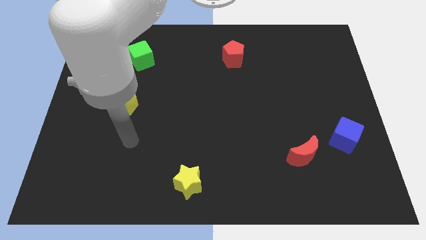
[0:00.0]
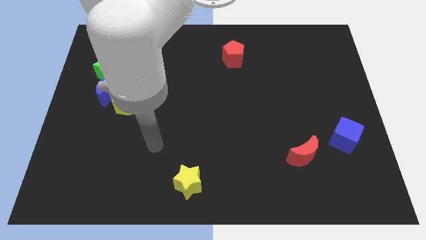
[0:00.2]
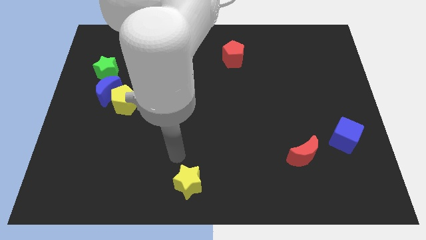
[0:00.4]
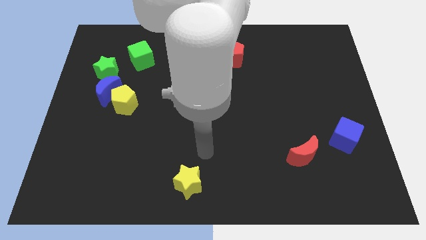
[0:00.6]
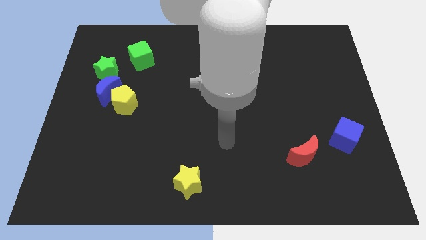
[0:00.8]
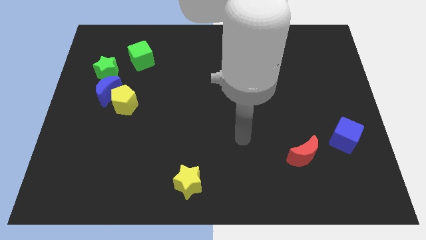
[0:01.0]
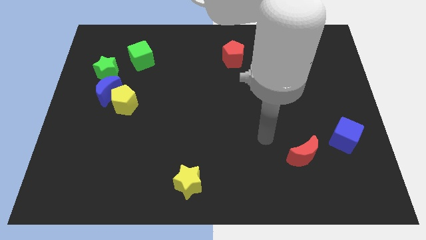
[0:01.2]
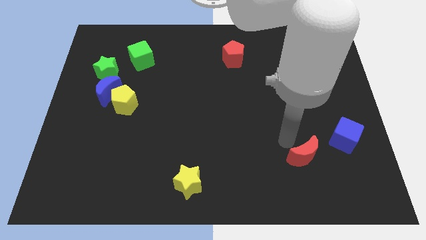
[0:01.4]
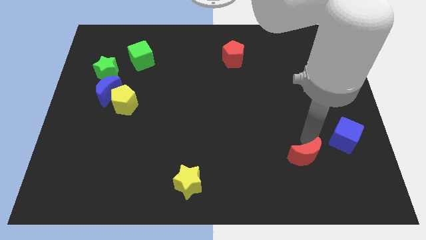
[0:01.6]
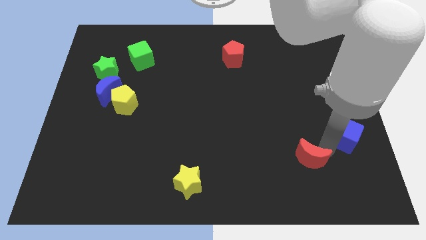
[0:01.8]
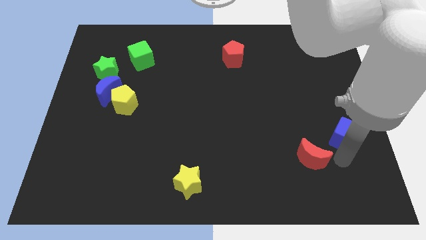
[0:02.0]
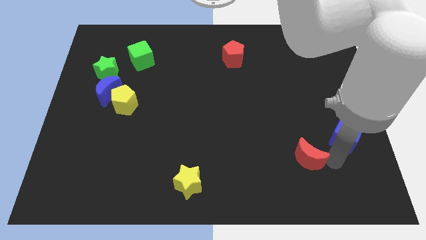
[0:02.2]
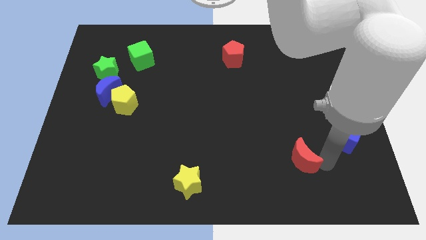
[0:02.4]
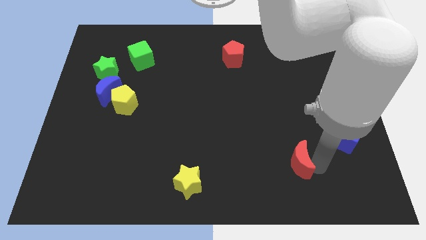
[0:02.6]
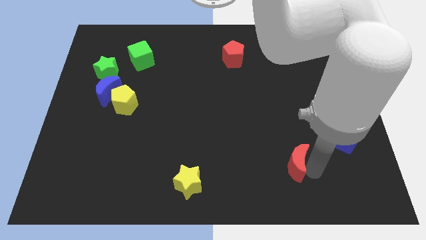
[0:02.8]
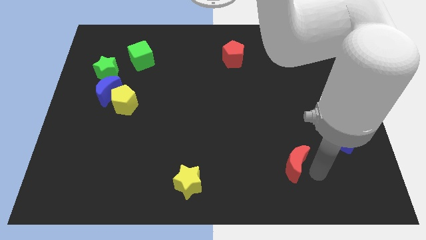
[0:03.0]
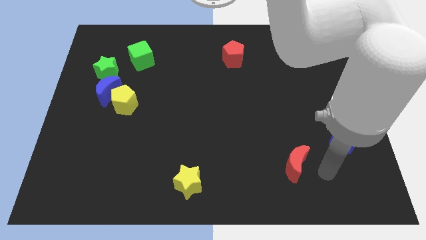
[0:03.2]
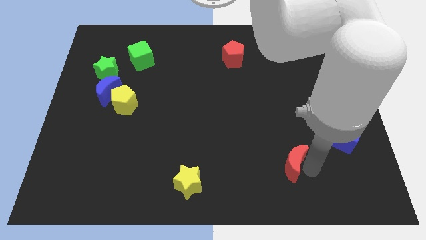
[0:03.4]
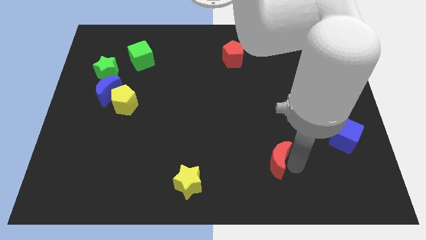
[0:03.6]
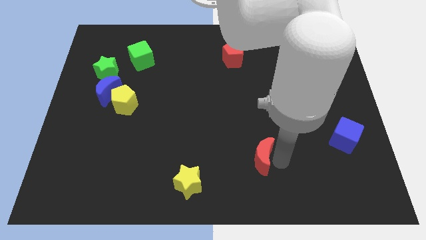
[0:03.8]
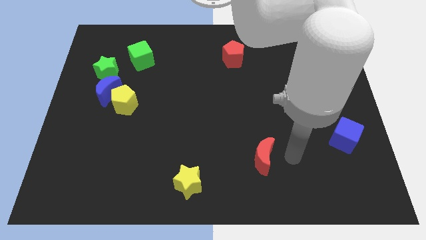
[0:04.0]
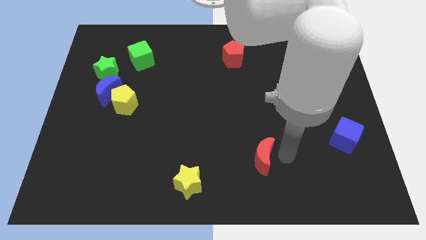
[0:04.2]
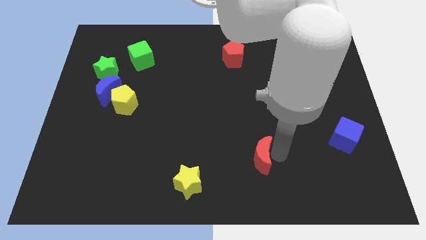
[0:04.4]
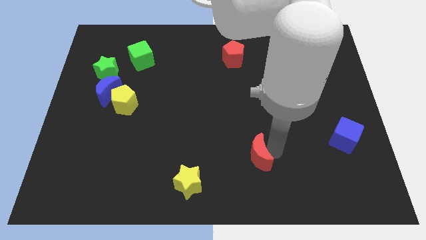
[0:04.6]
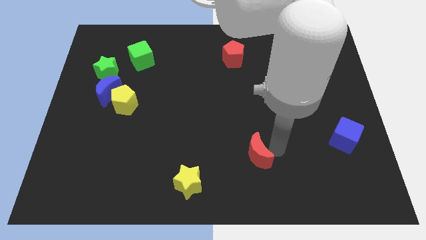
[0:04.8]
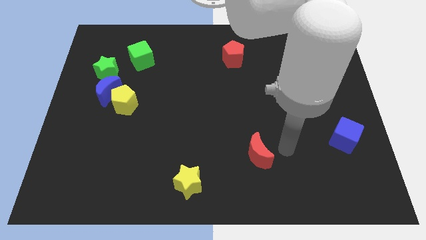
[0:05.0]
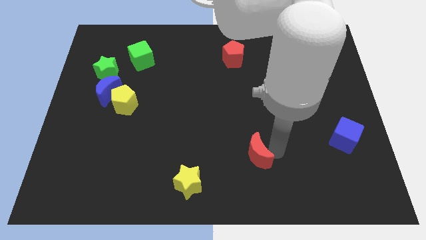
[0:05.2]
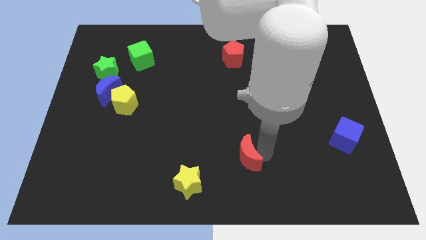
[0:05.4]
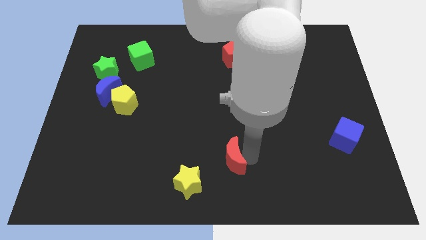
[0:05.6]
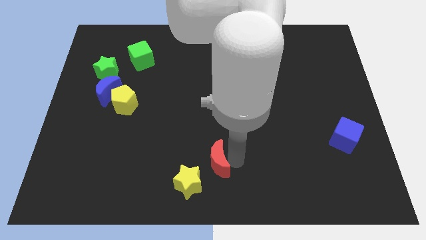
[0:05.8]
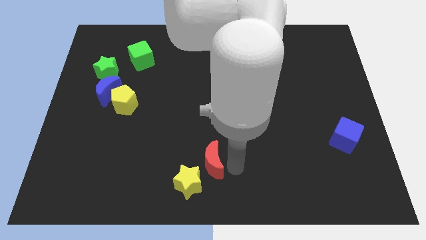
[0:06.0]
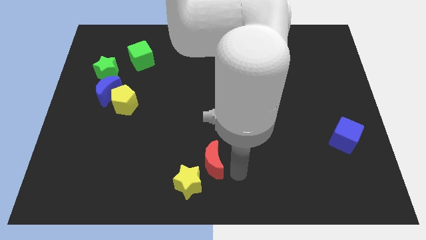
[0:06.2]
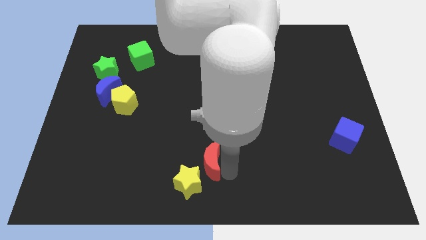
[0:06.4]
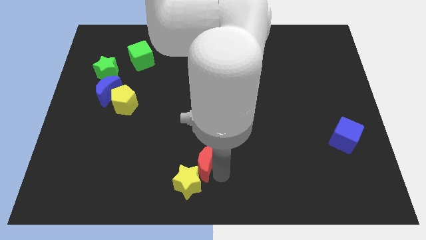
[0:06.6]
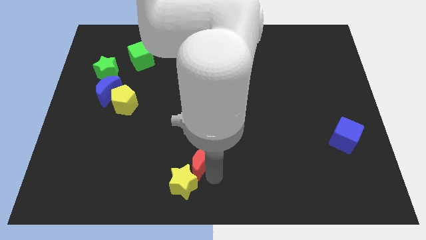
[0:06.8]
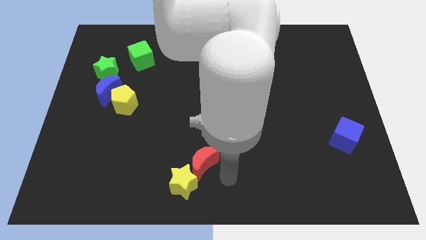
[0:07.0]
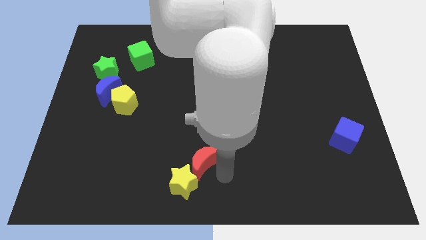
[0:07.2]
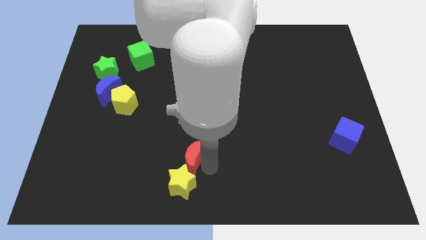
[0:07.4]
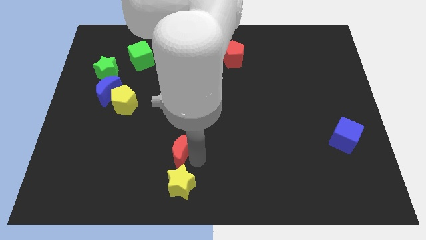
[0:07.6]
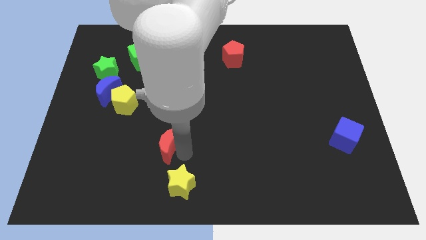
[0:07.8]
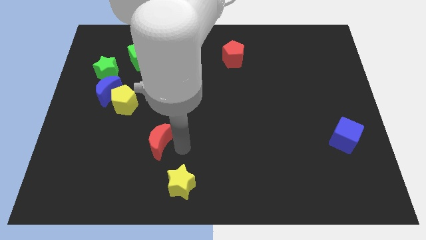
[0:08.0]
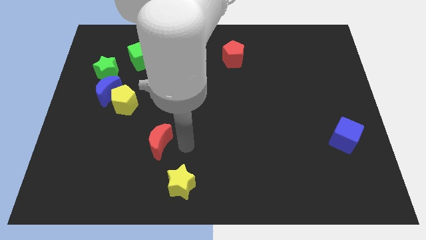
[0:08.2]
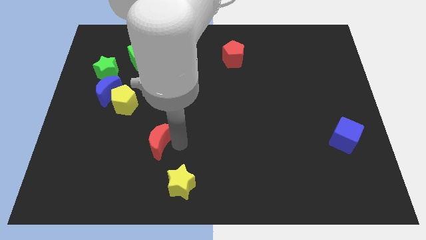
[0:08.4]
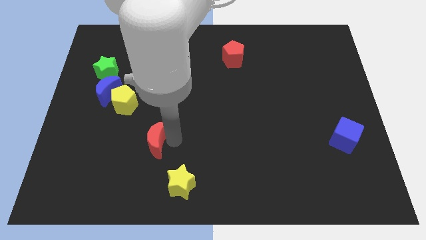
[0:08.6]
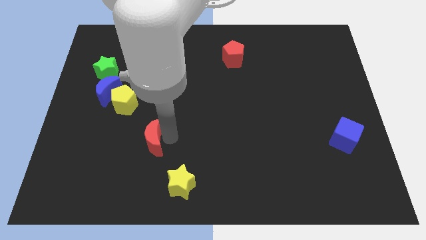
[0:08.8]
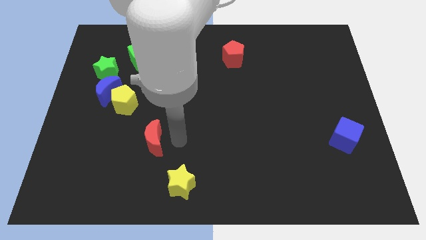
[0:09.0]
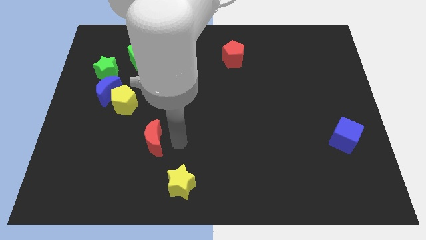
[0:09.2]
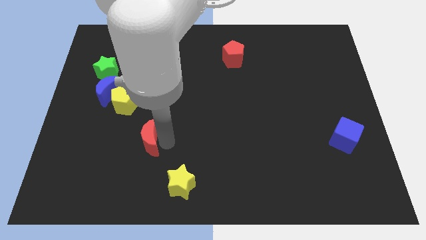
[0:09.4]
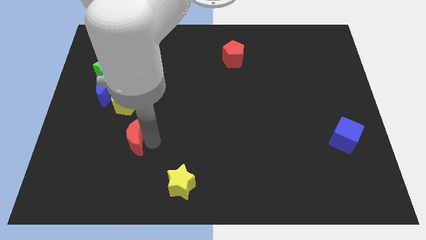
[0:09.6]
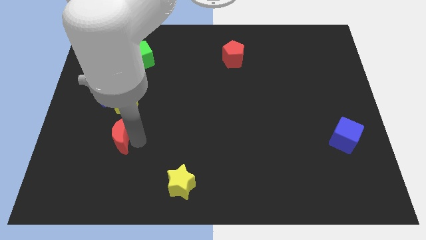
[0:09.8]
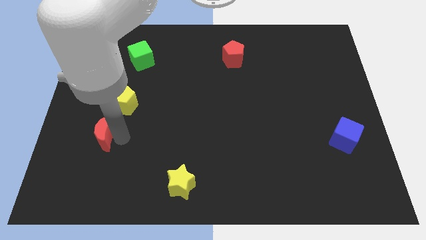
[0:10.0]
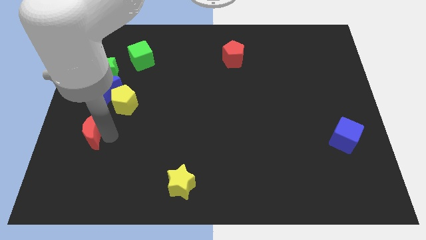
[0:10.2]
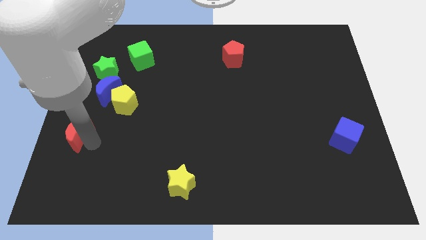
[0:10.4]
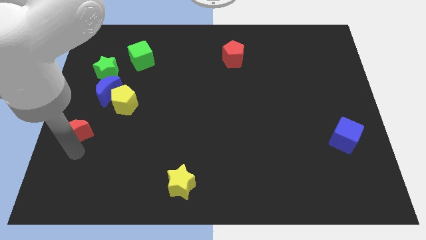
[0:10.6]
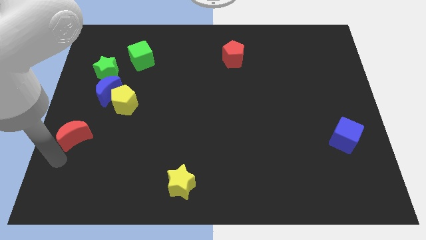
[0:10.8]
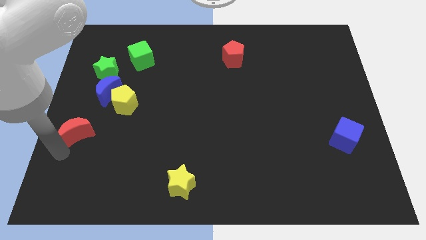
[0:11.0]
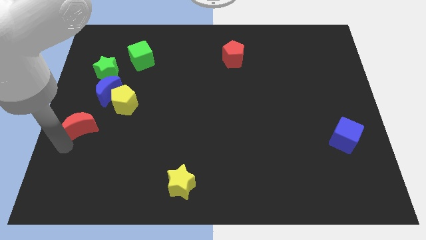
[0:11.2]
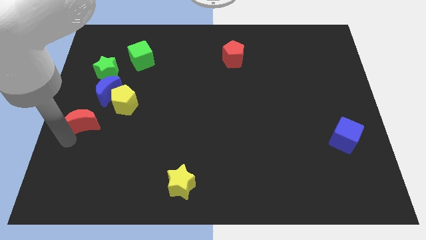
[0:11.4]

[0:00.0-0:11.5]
put the red moon to the bottom side of the green star

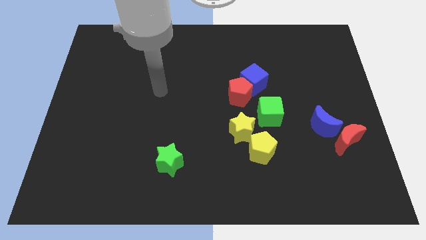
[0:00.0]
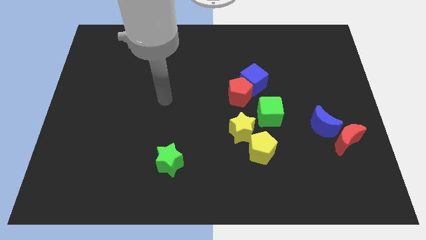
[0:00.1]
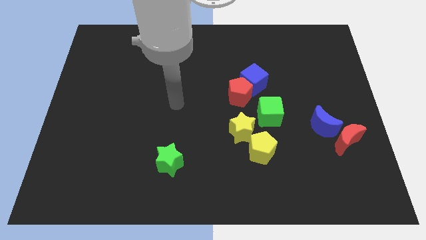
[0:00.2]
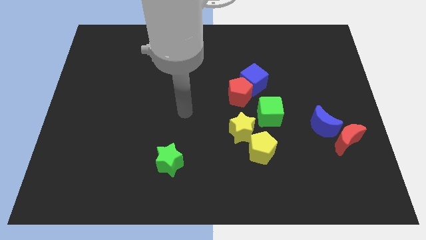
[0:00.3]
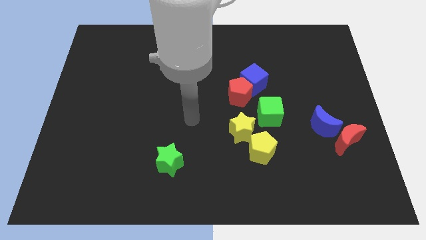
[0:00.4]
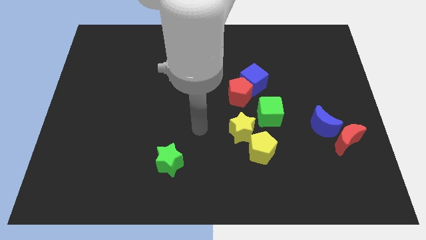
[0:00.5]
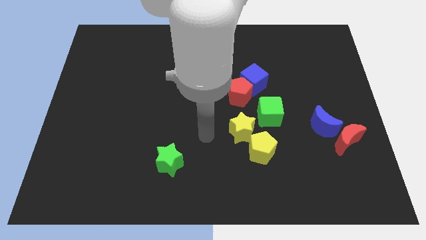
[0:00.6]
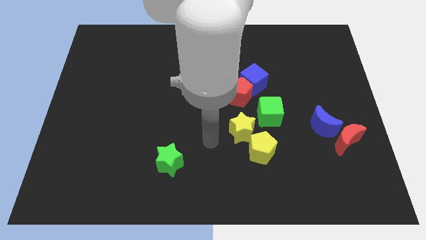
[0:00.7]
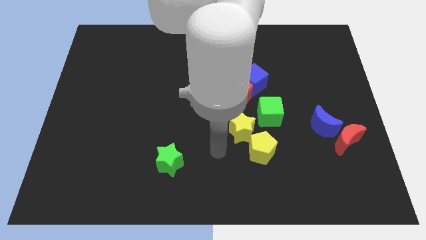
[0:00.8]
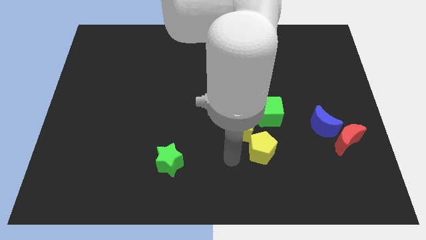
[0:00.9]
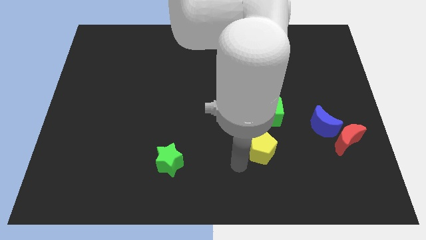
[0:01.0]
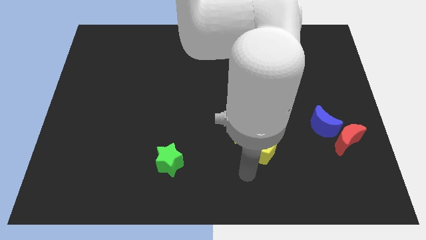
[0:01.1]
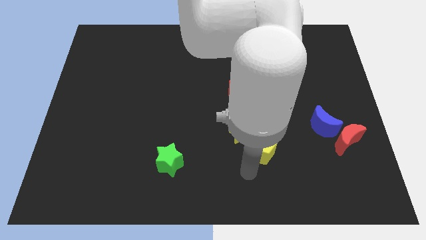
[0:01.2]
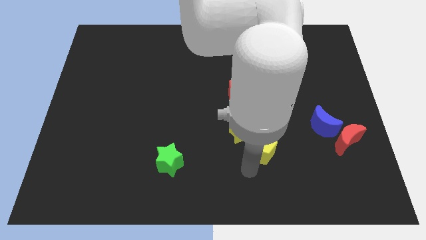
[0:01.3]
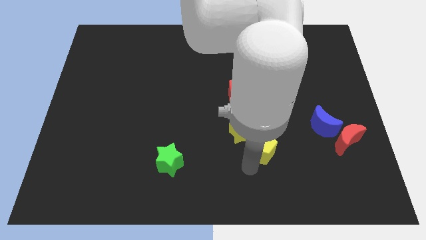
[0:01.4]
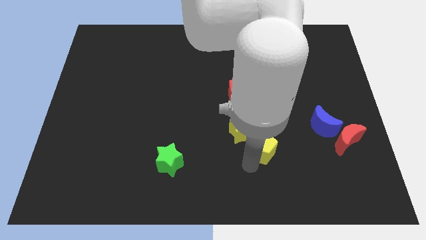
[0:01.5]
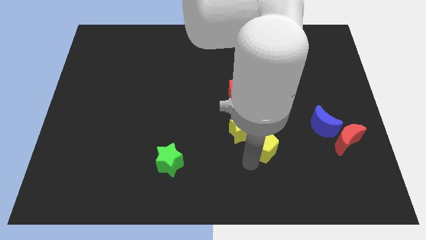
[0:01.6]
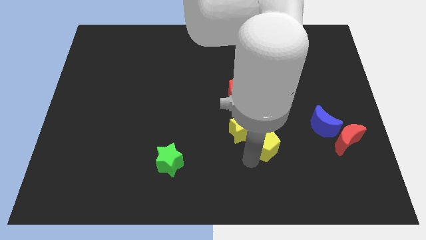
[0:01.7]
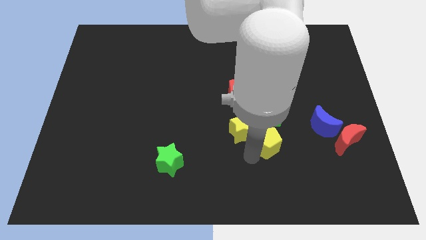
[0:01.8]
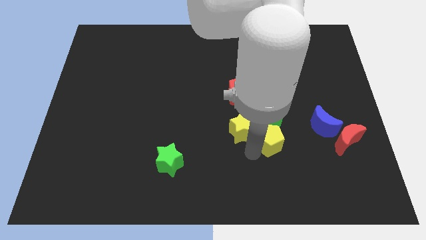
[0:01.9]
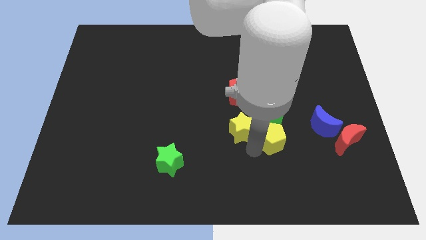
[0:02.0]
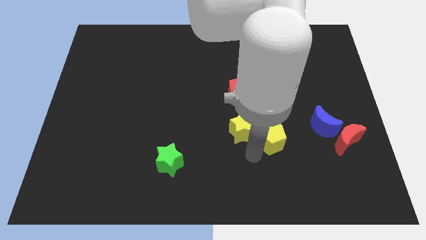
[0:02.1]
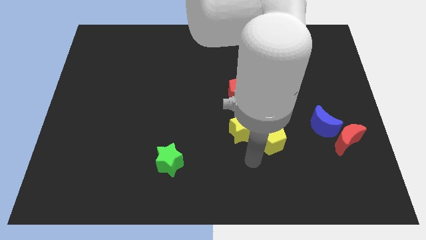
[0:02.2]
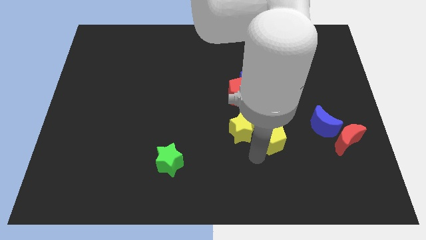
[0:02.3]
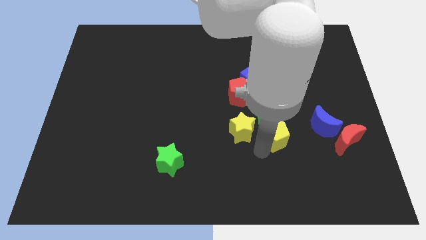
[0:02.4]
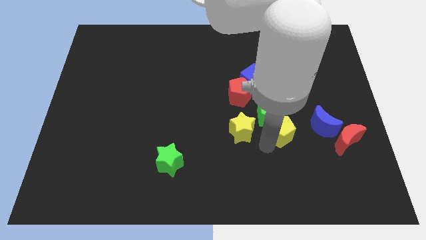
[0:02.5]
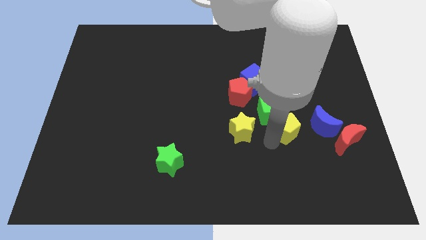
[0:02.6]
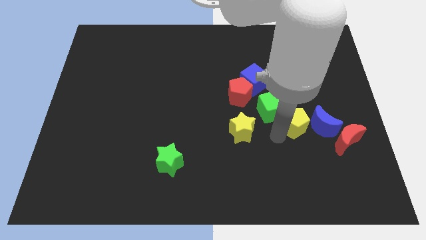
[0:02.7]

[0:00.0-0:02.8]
move the yellow pentagon just right of the green cube
